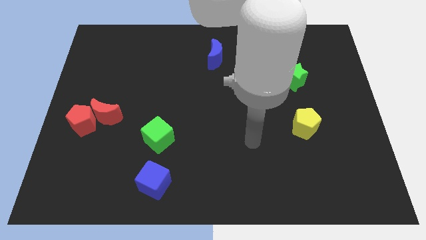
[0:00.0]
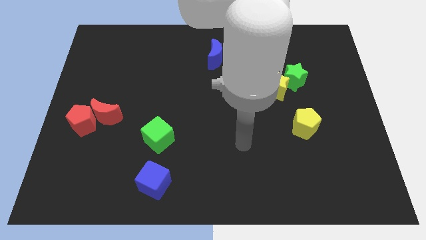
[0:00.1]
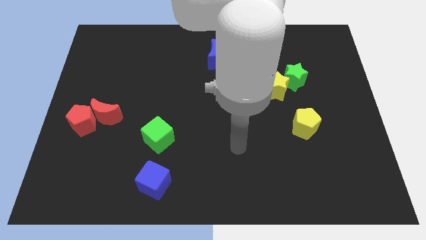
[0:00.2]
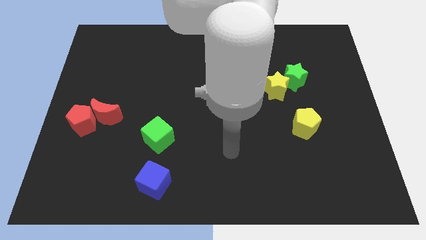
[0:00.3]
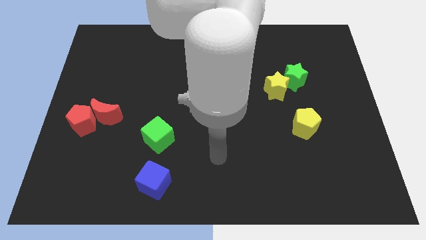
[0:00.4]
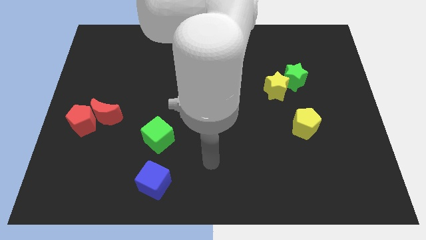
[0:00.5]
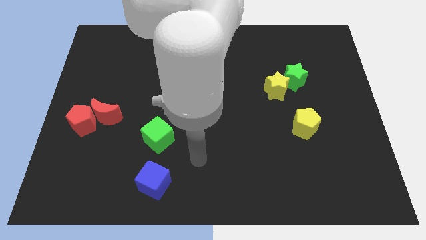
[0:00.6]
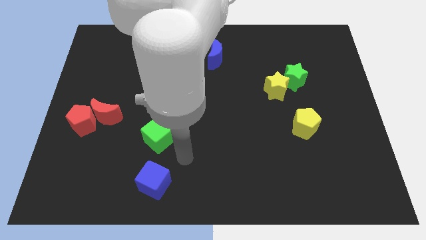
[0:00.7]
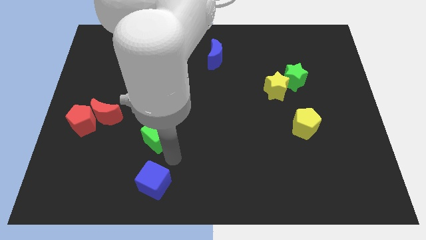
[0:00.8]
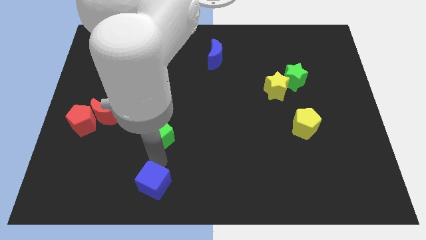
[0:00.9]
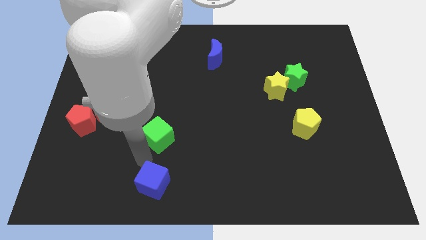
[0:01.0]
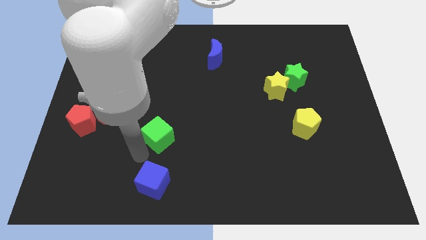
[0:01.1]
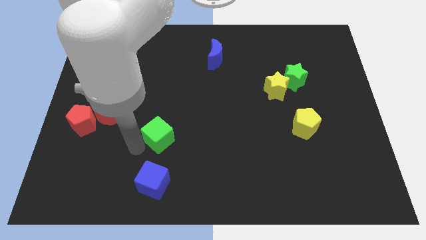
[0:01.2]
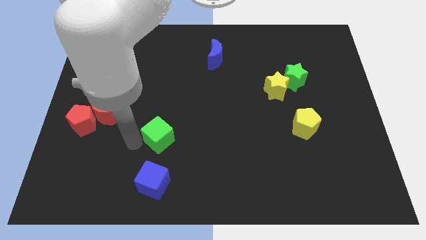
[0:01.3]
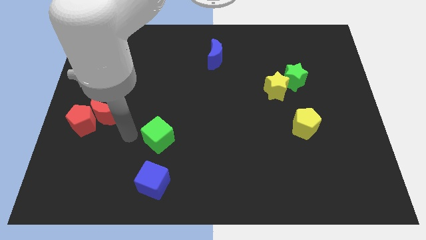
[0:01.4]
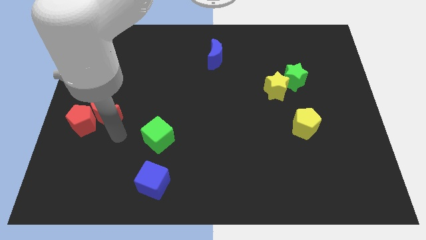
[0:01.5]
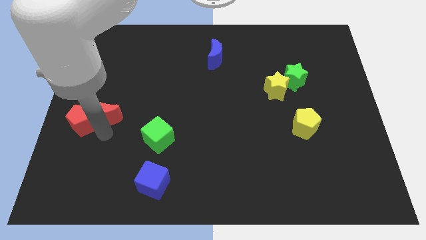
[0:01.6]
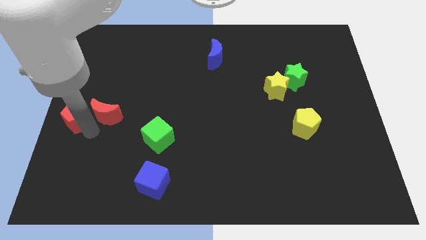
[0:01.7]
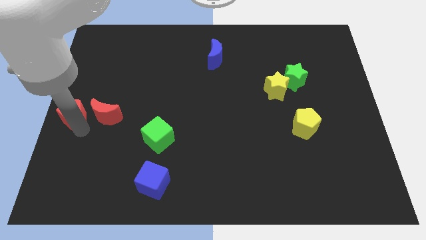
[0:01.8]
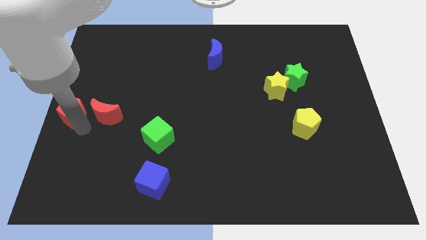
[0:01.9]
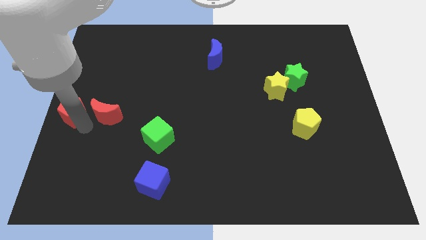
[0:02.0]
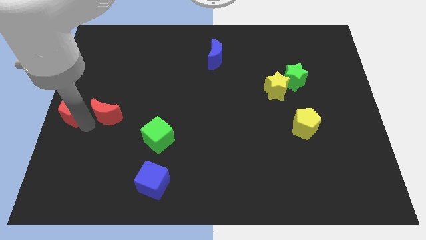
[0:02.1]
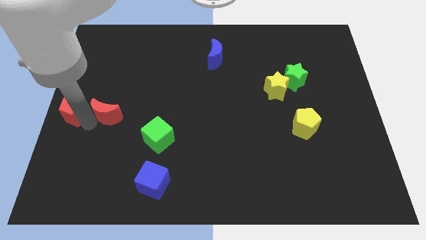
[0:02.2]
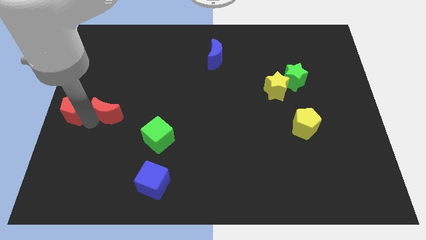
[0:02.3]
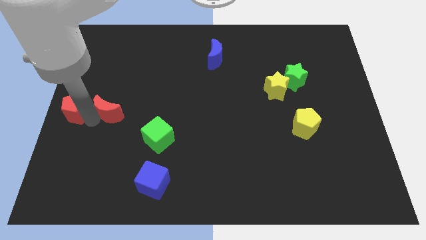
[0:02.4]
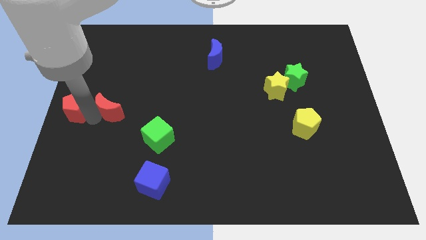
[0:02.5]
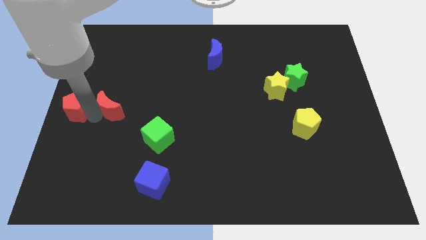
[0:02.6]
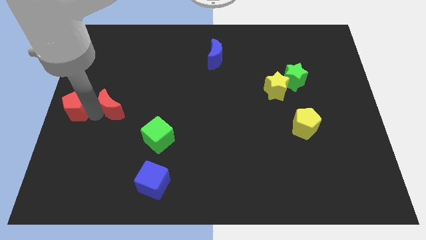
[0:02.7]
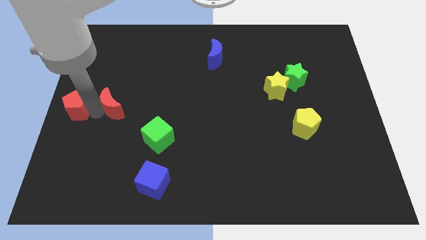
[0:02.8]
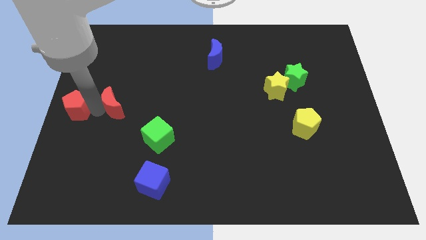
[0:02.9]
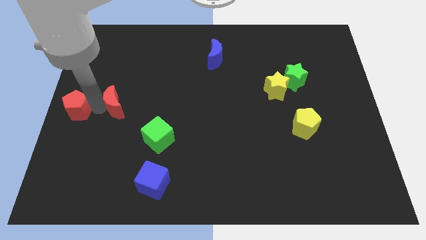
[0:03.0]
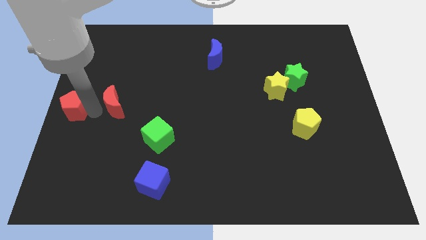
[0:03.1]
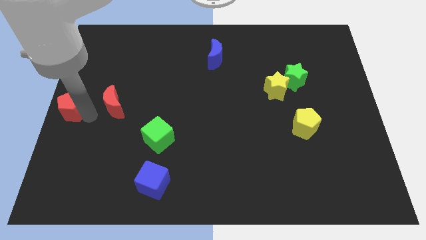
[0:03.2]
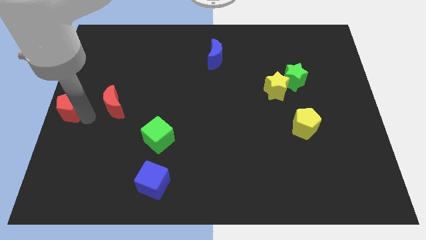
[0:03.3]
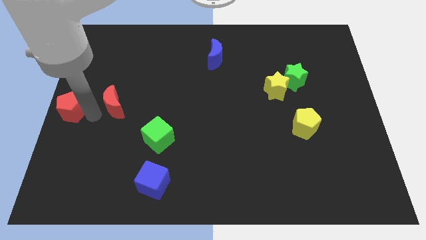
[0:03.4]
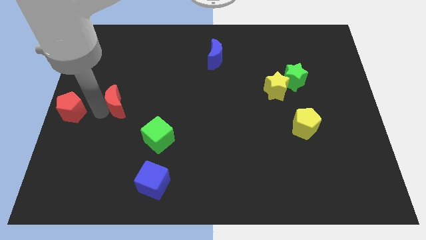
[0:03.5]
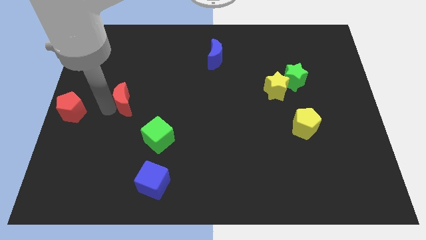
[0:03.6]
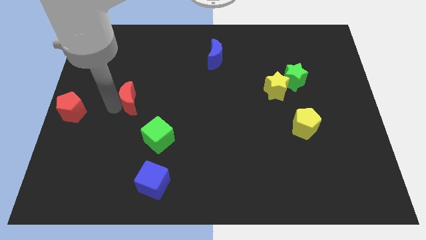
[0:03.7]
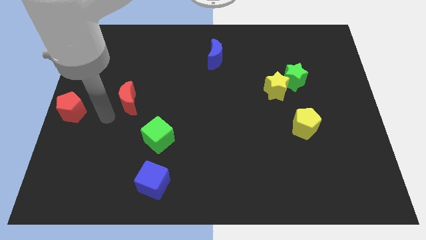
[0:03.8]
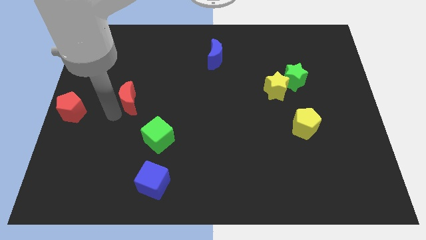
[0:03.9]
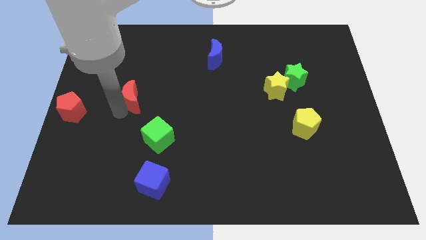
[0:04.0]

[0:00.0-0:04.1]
slightly push the red moon up and then to the right

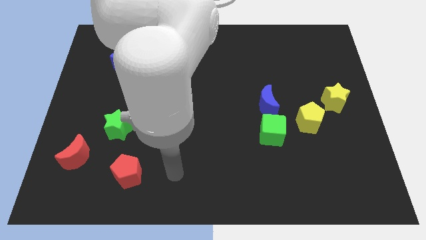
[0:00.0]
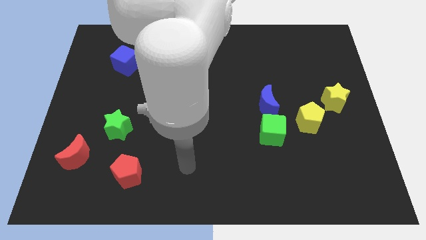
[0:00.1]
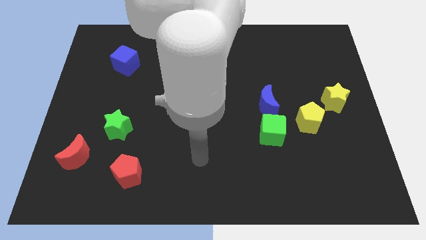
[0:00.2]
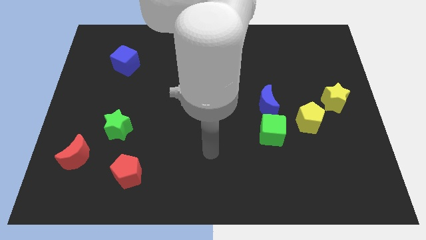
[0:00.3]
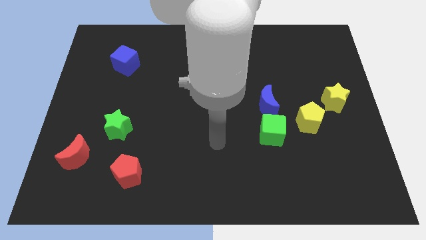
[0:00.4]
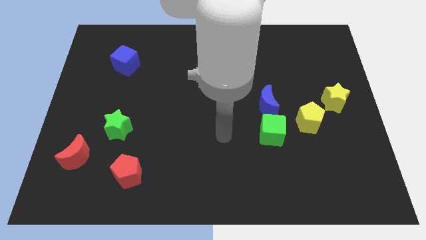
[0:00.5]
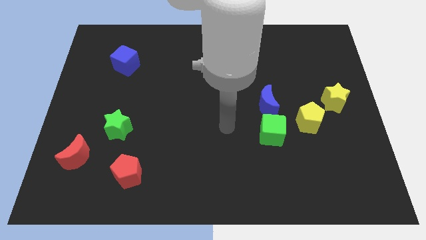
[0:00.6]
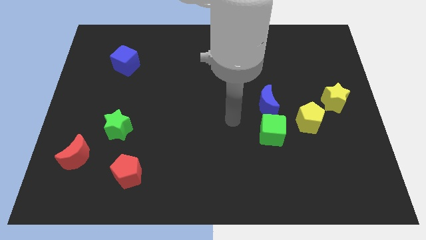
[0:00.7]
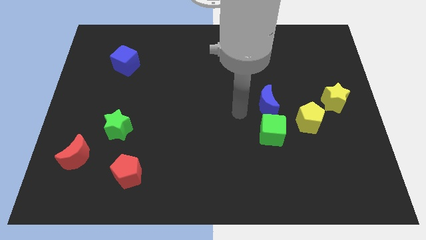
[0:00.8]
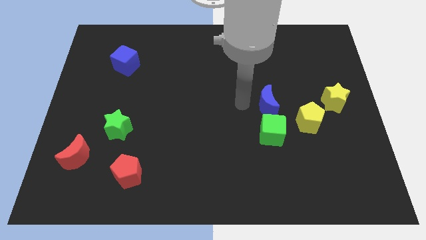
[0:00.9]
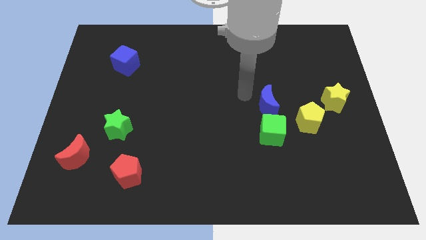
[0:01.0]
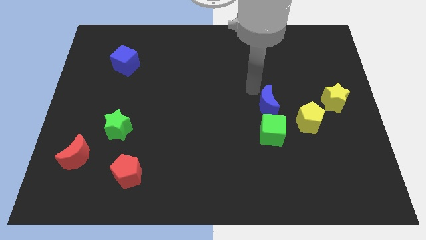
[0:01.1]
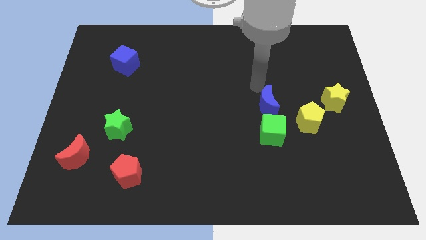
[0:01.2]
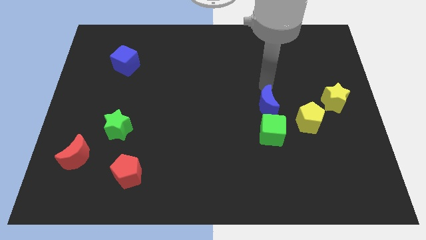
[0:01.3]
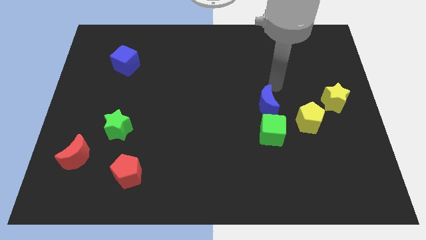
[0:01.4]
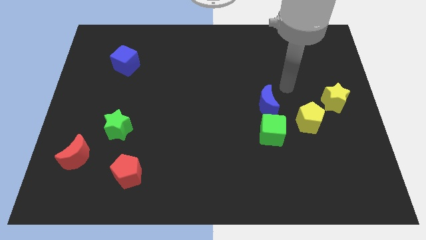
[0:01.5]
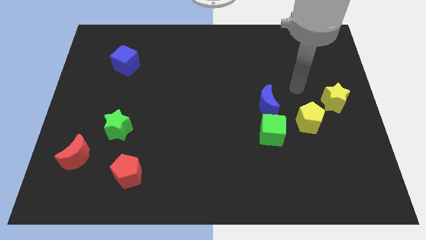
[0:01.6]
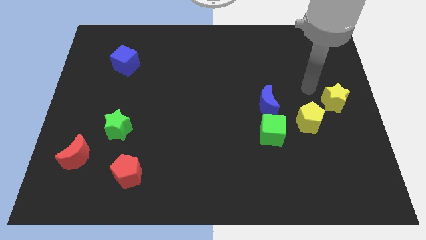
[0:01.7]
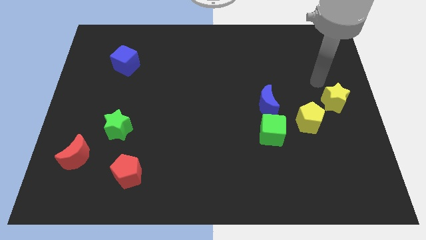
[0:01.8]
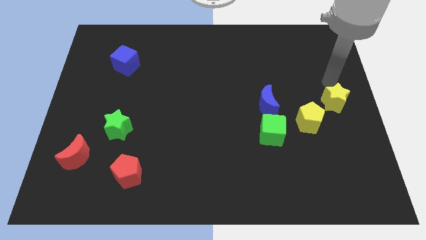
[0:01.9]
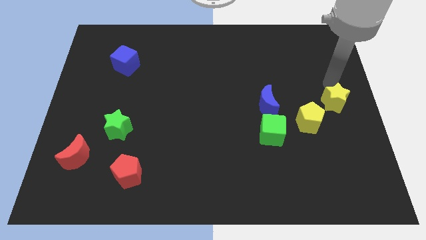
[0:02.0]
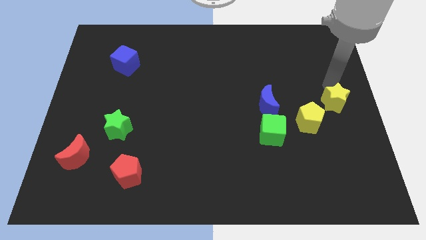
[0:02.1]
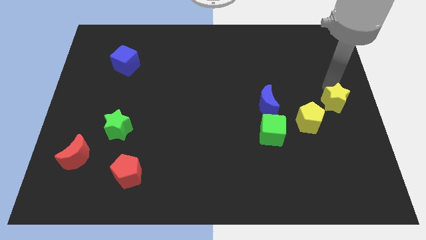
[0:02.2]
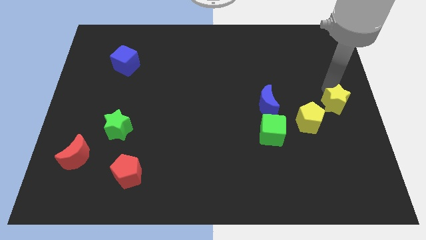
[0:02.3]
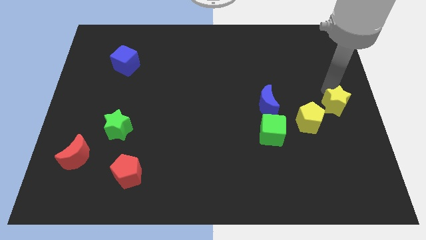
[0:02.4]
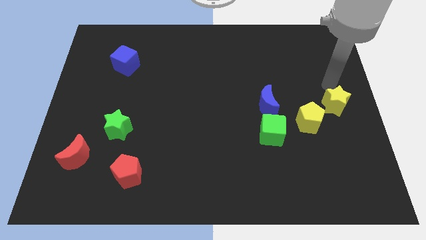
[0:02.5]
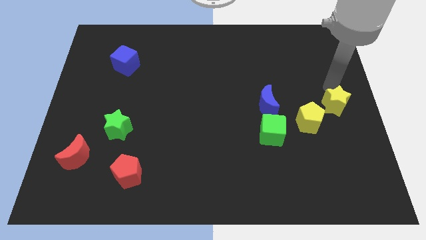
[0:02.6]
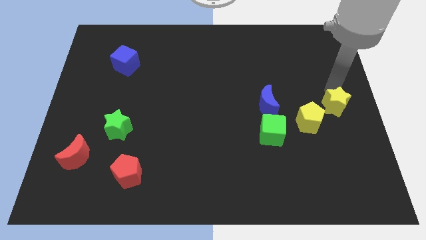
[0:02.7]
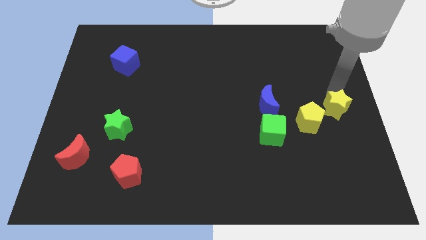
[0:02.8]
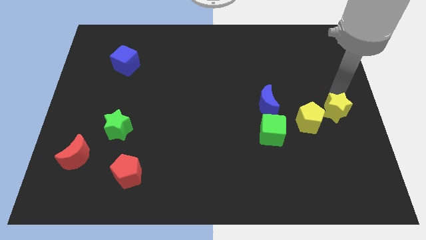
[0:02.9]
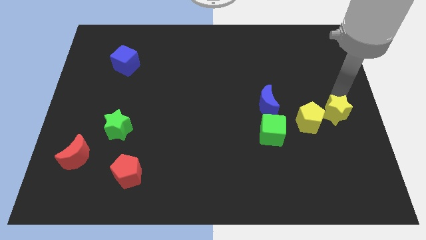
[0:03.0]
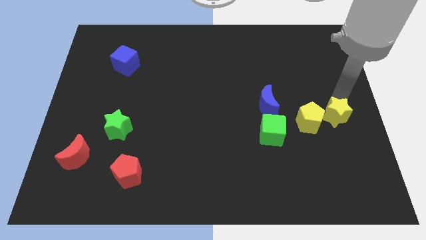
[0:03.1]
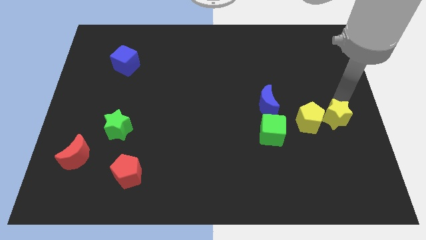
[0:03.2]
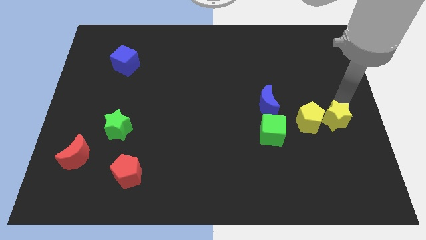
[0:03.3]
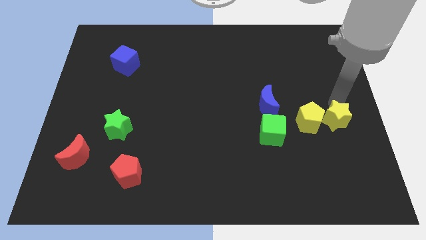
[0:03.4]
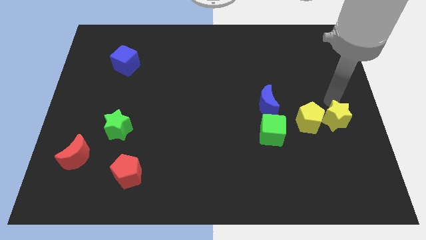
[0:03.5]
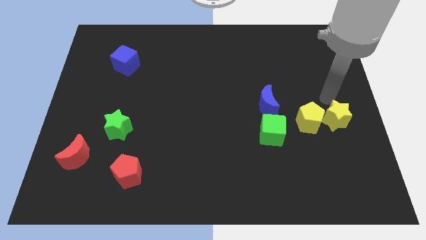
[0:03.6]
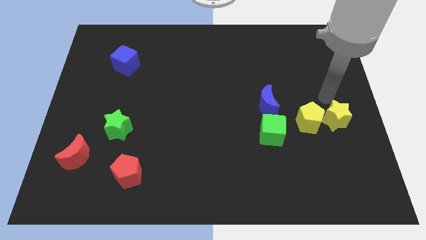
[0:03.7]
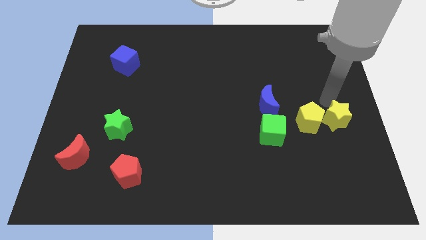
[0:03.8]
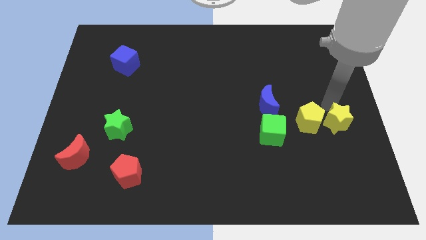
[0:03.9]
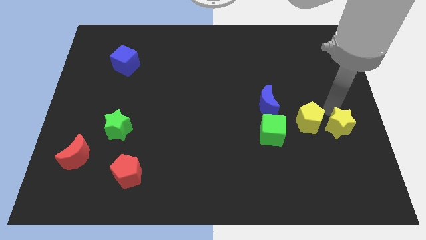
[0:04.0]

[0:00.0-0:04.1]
slide the yellow star a little bit downwards
